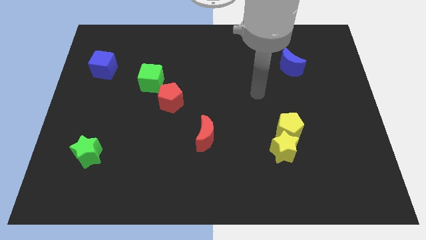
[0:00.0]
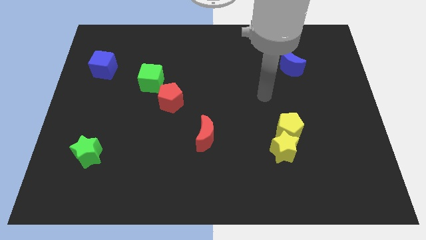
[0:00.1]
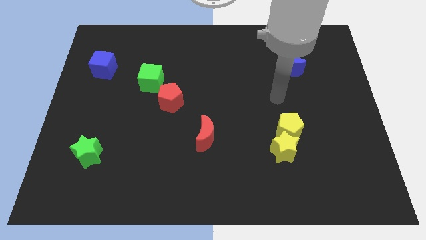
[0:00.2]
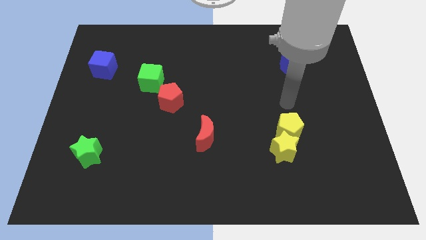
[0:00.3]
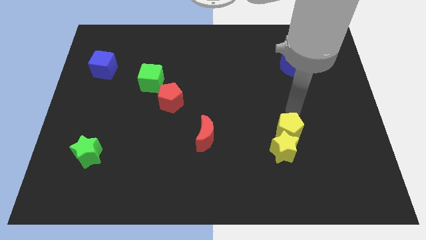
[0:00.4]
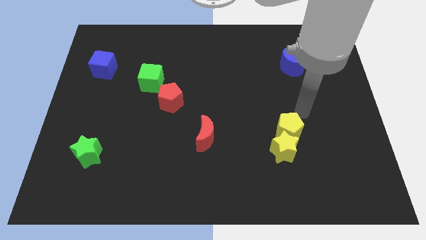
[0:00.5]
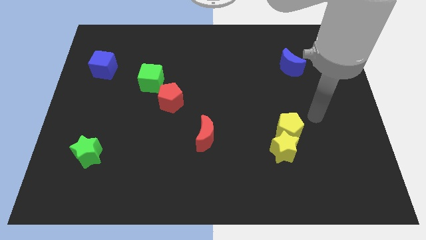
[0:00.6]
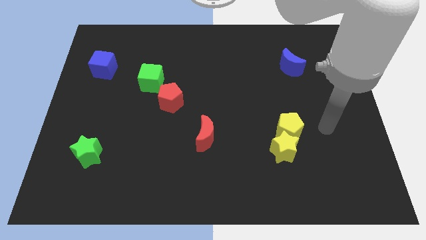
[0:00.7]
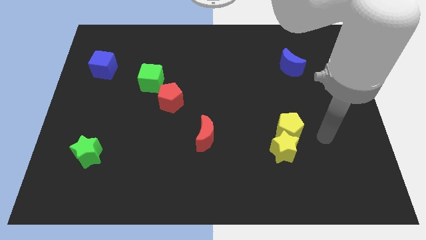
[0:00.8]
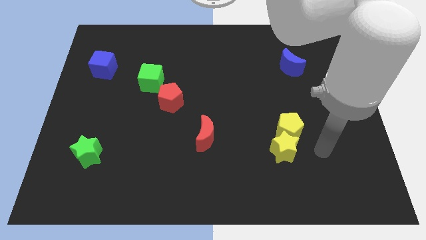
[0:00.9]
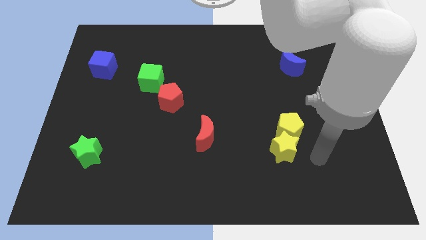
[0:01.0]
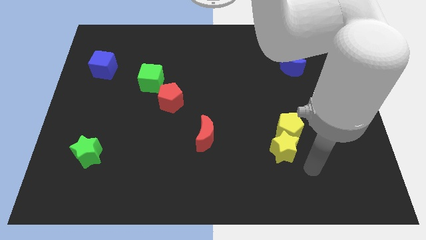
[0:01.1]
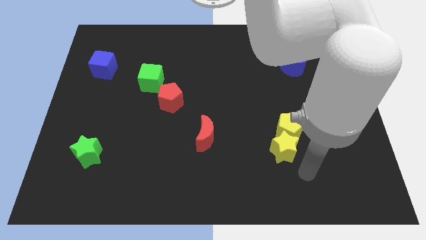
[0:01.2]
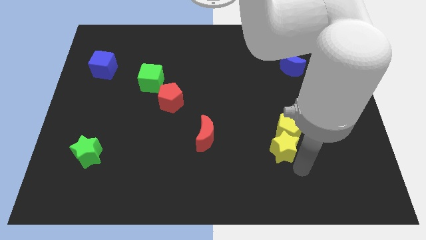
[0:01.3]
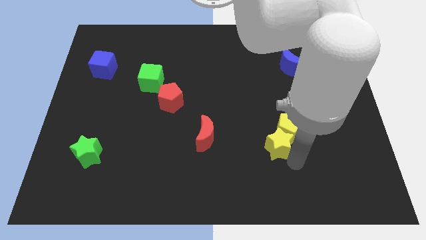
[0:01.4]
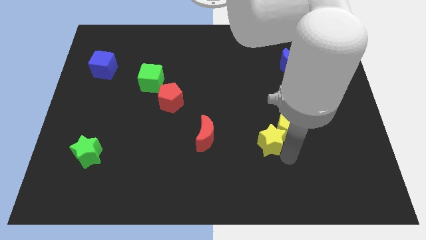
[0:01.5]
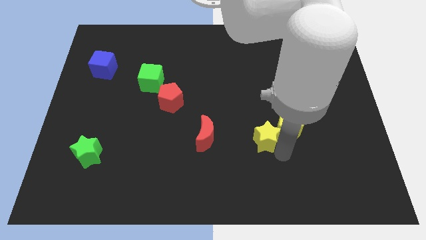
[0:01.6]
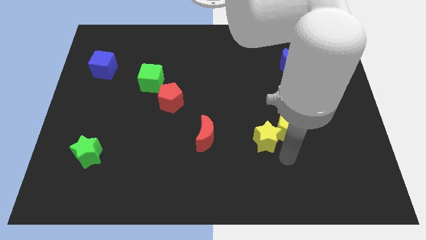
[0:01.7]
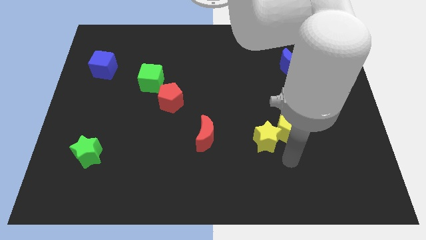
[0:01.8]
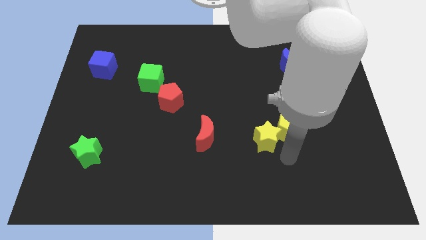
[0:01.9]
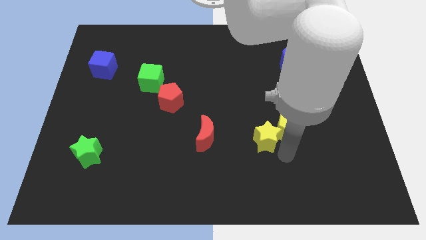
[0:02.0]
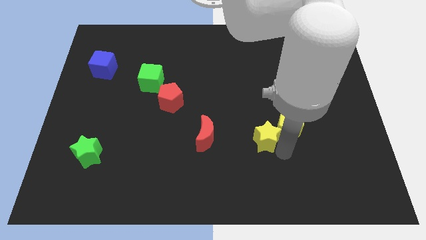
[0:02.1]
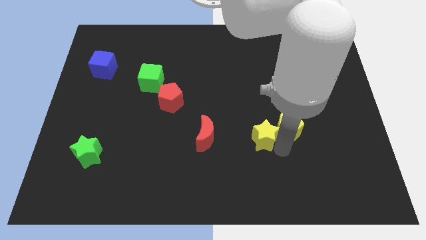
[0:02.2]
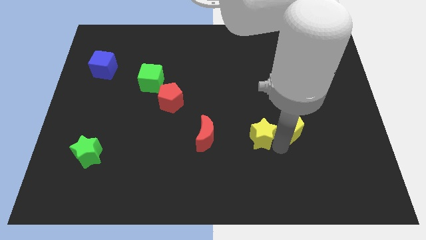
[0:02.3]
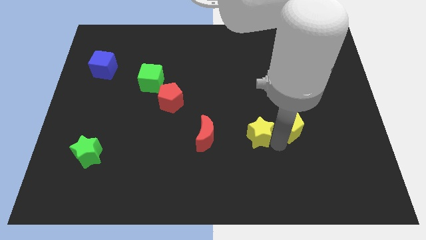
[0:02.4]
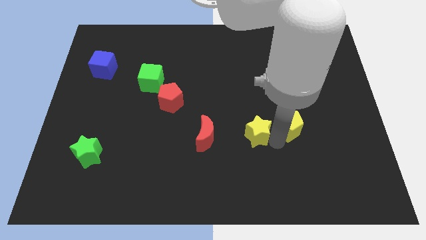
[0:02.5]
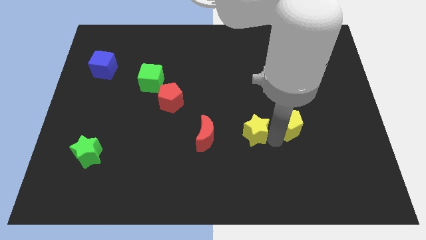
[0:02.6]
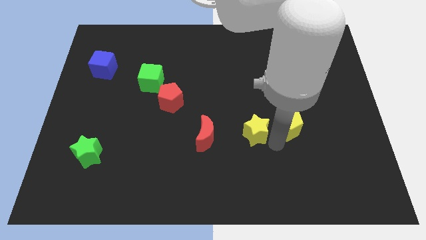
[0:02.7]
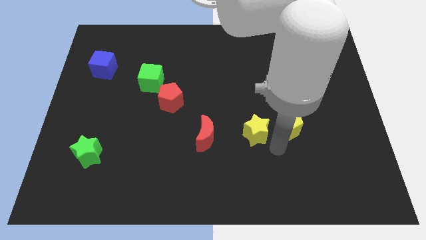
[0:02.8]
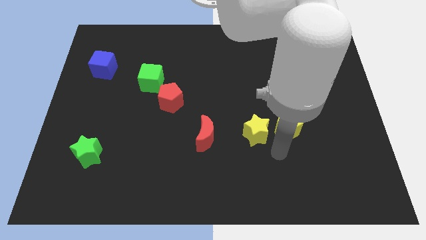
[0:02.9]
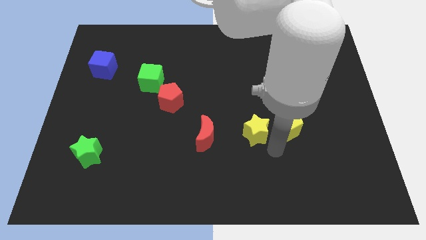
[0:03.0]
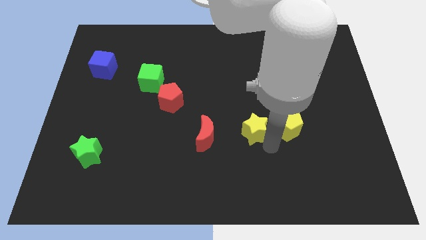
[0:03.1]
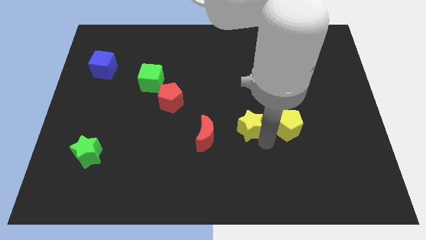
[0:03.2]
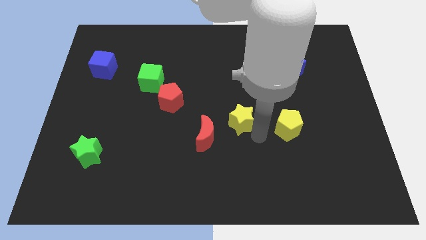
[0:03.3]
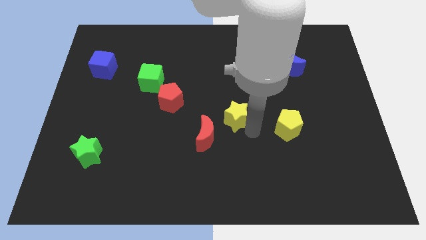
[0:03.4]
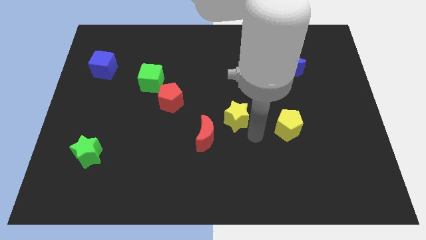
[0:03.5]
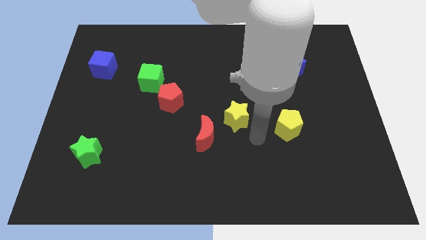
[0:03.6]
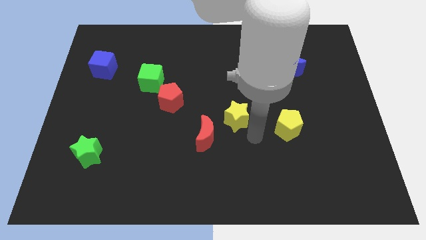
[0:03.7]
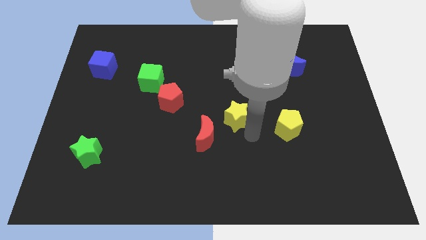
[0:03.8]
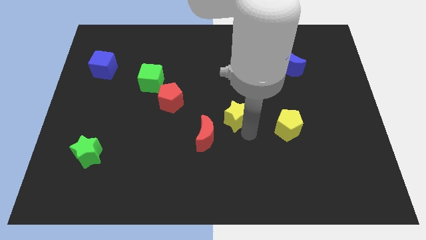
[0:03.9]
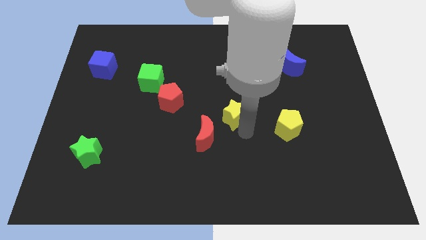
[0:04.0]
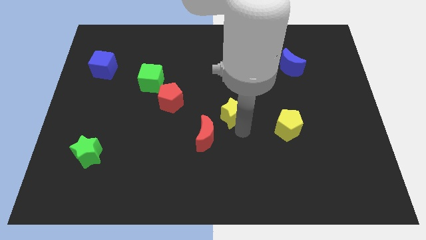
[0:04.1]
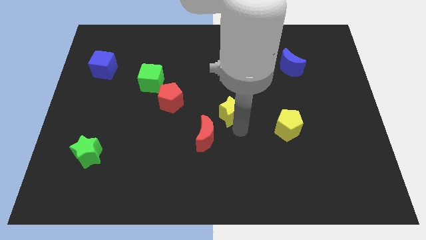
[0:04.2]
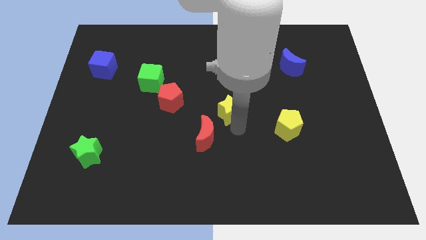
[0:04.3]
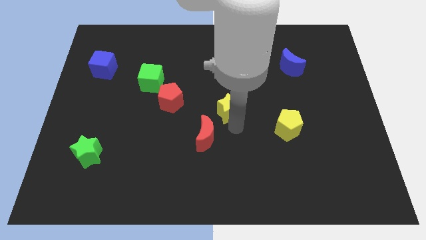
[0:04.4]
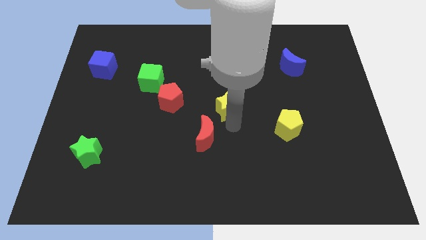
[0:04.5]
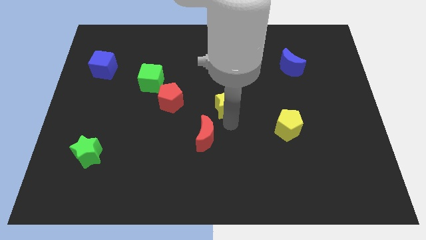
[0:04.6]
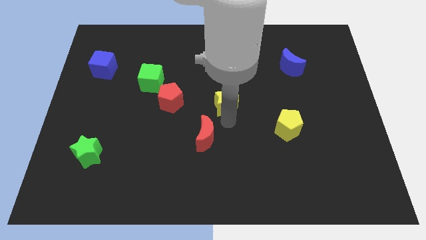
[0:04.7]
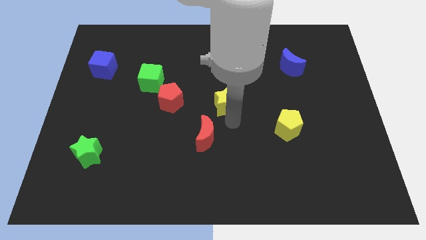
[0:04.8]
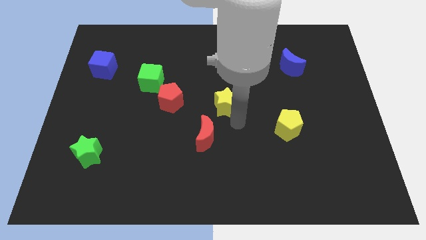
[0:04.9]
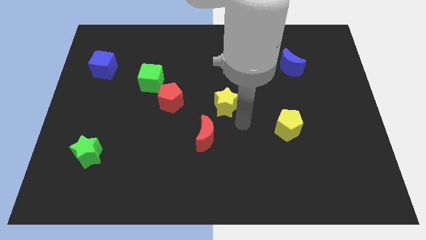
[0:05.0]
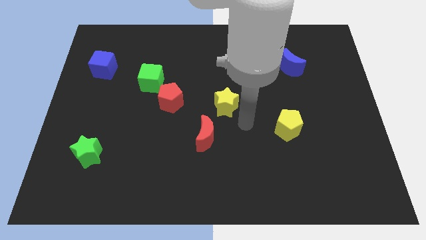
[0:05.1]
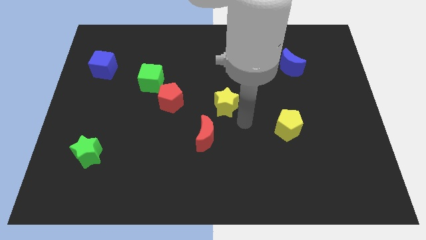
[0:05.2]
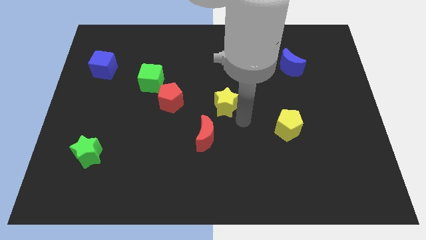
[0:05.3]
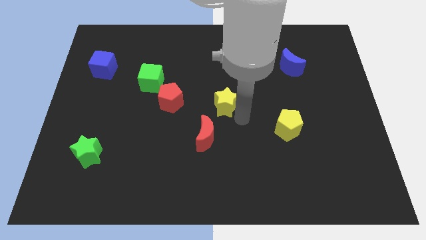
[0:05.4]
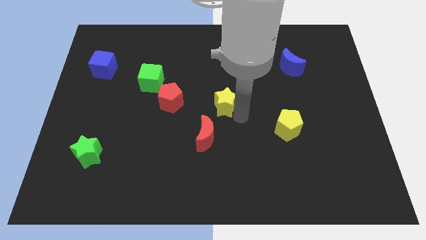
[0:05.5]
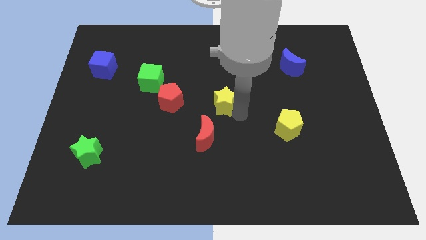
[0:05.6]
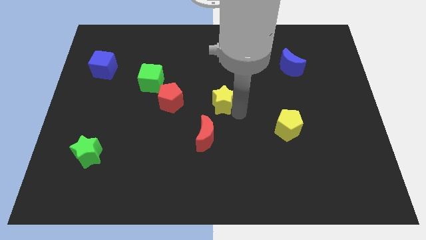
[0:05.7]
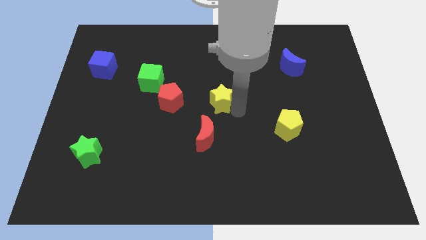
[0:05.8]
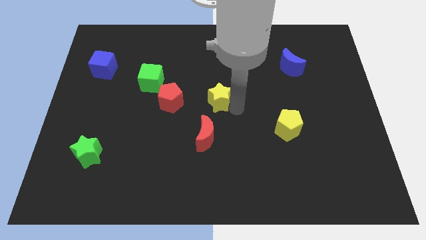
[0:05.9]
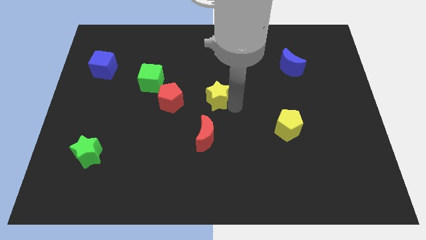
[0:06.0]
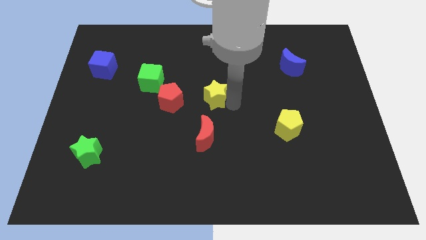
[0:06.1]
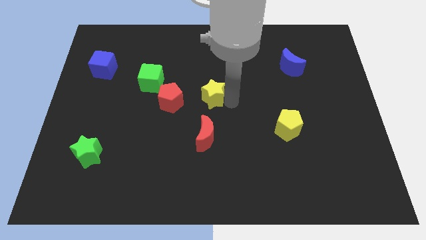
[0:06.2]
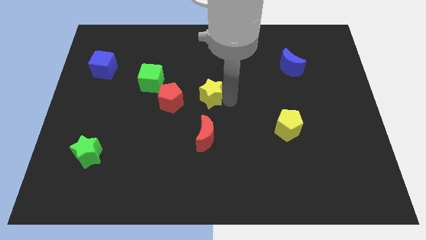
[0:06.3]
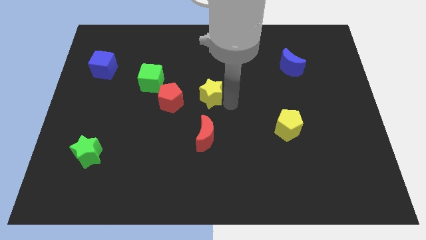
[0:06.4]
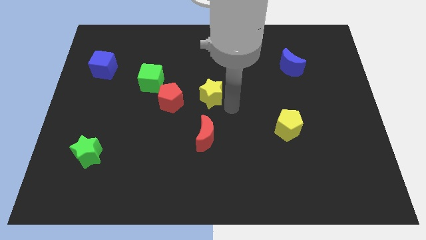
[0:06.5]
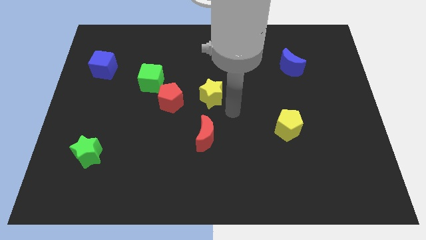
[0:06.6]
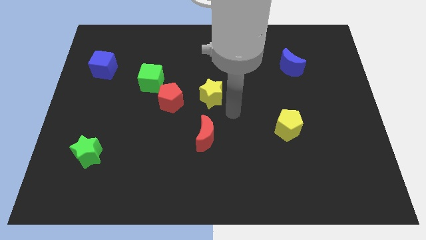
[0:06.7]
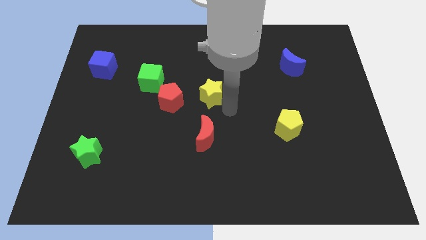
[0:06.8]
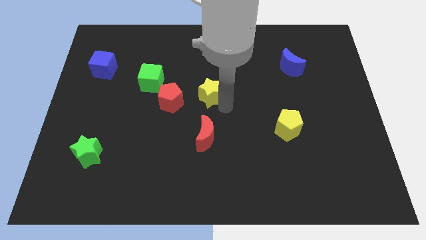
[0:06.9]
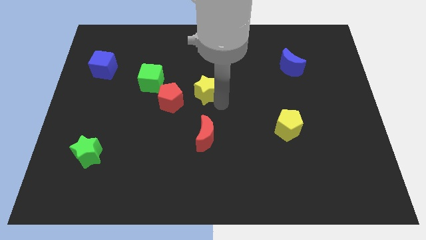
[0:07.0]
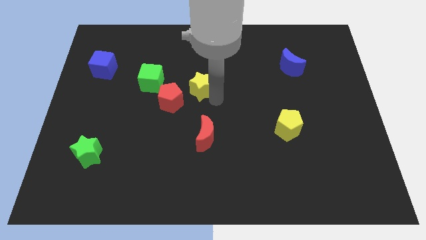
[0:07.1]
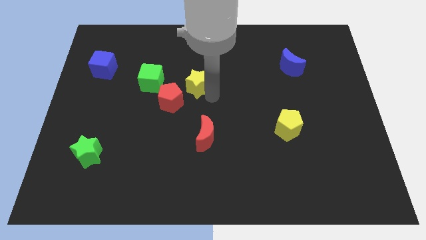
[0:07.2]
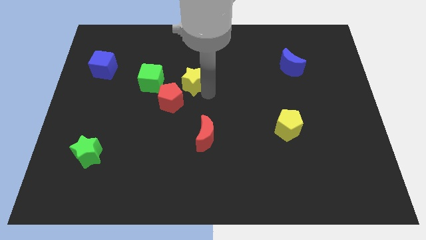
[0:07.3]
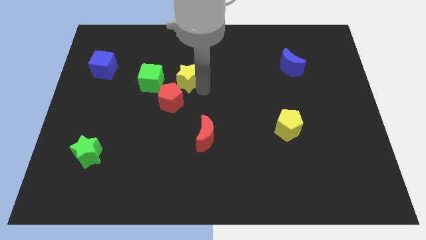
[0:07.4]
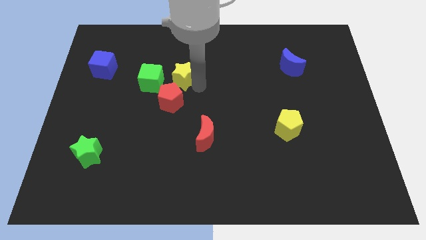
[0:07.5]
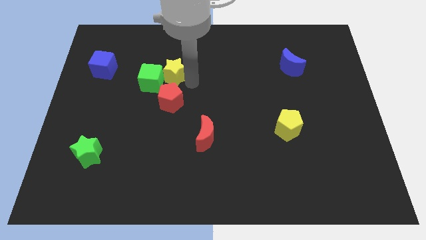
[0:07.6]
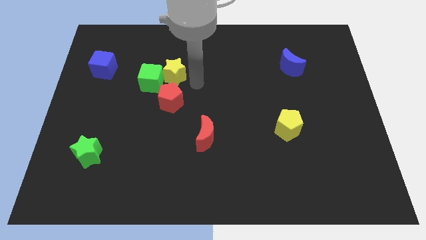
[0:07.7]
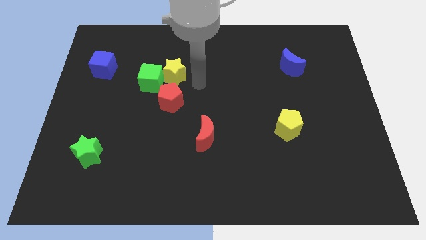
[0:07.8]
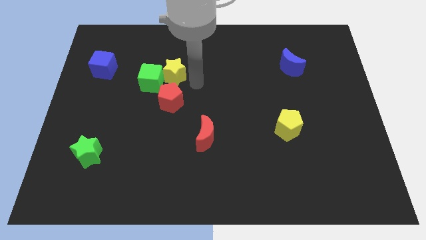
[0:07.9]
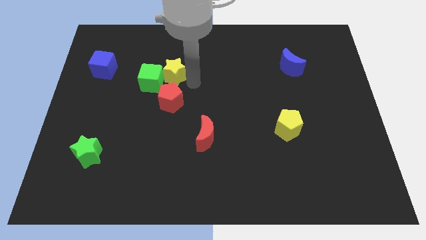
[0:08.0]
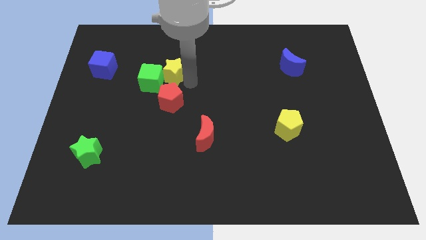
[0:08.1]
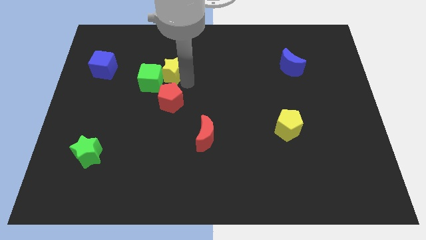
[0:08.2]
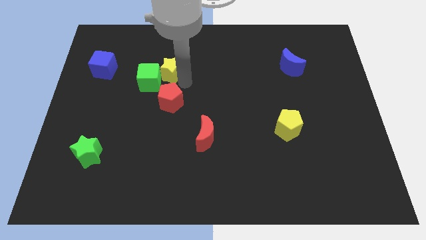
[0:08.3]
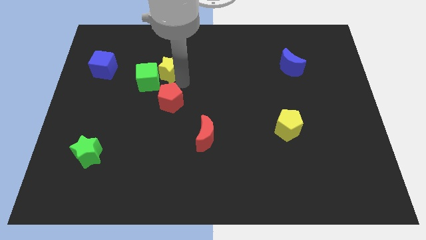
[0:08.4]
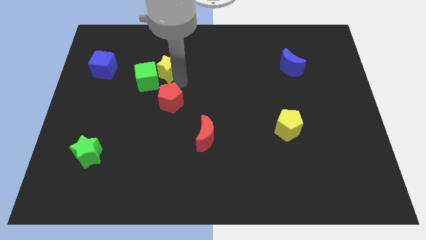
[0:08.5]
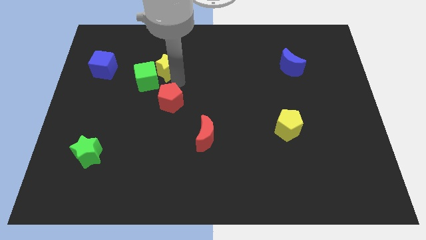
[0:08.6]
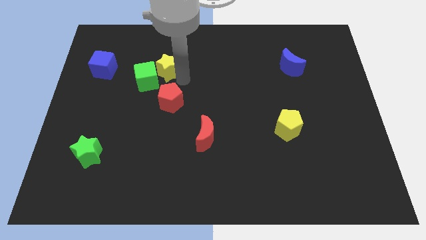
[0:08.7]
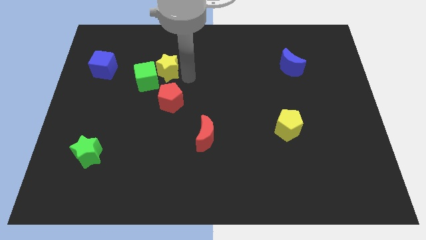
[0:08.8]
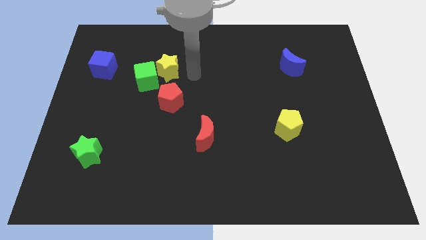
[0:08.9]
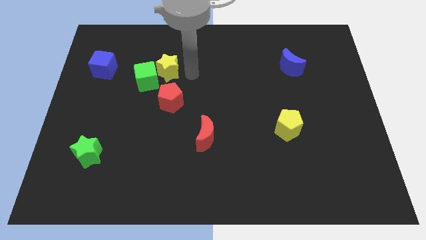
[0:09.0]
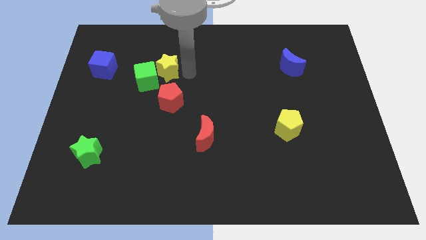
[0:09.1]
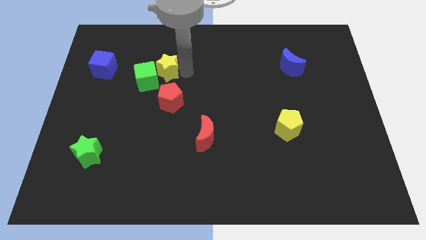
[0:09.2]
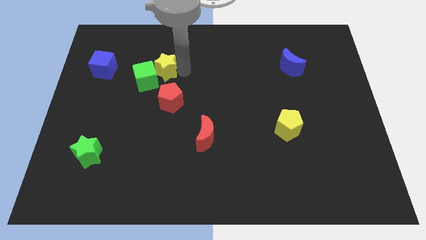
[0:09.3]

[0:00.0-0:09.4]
push the yellow star to the right side of the blue cube
